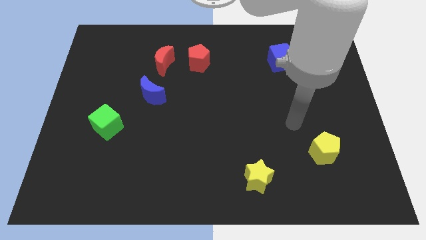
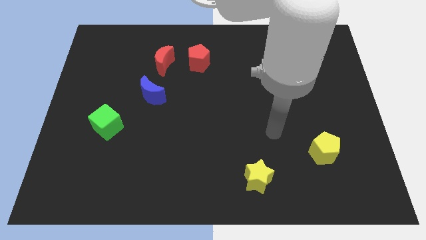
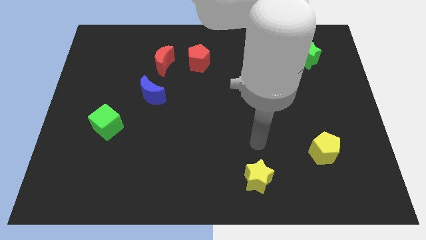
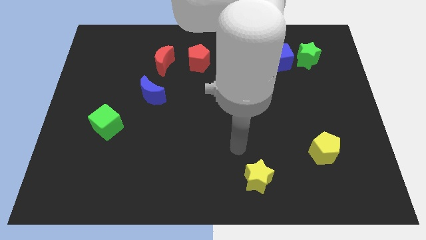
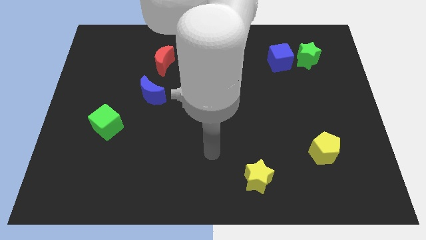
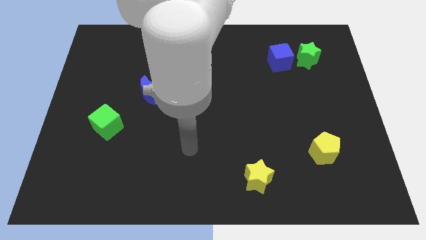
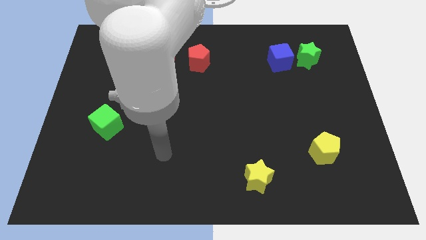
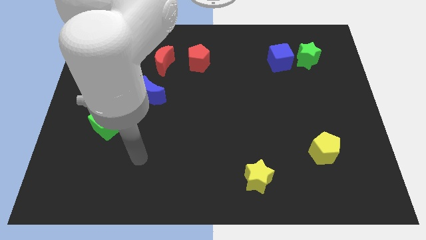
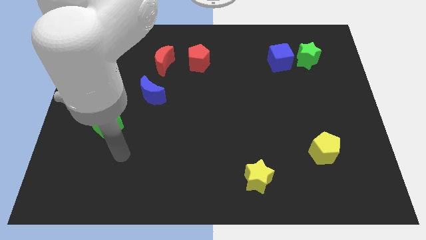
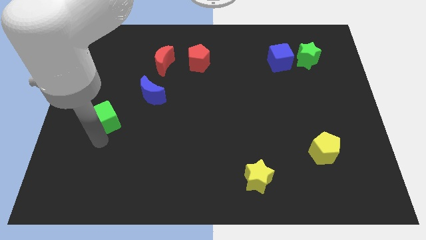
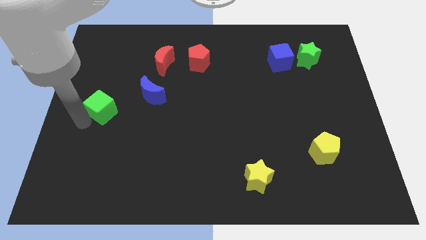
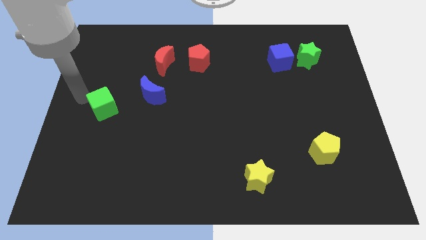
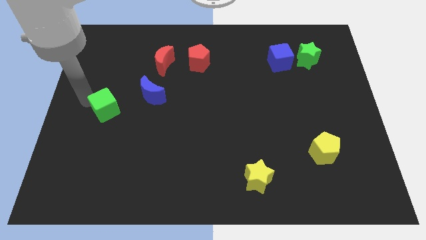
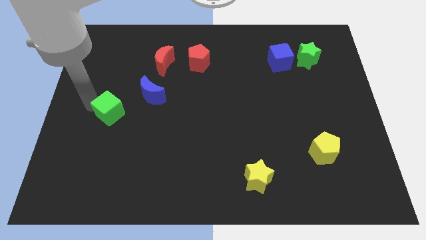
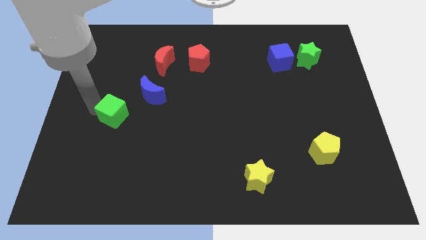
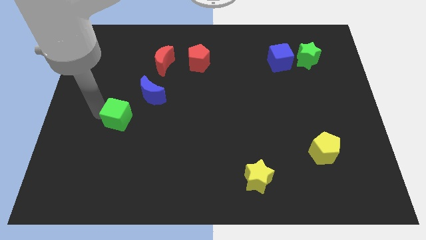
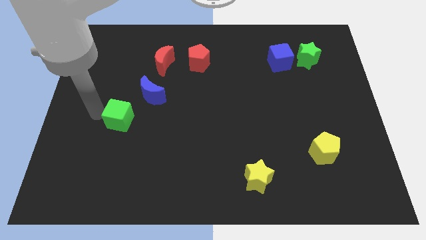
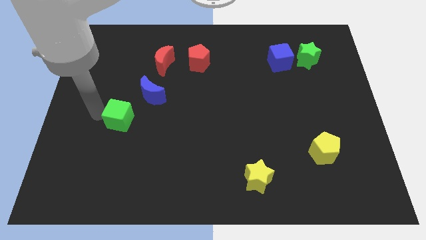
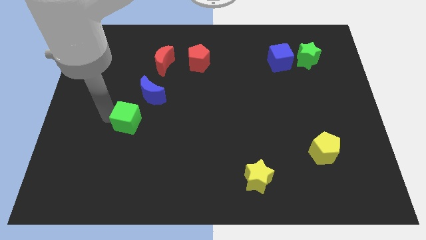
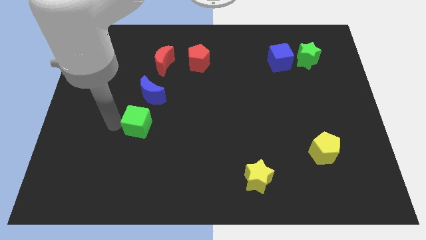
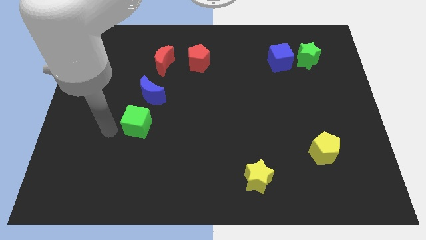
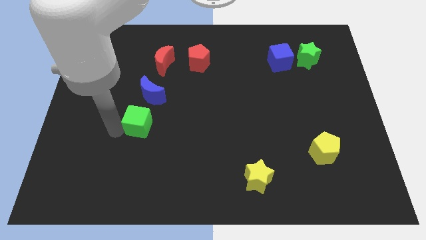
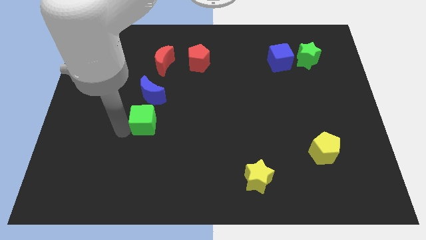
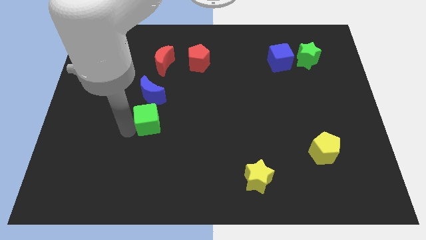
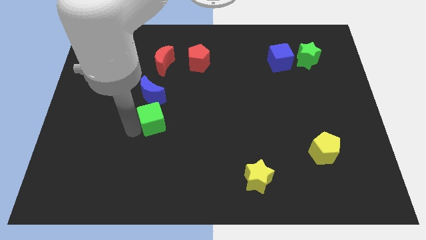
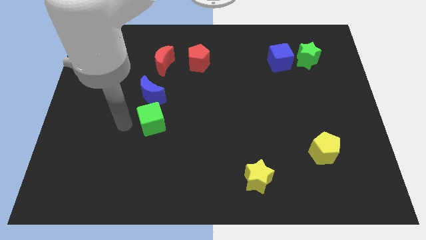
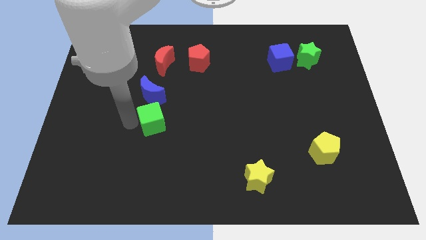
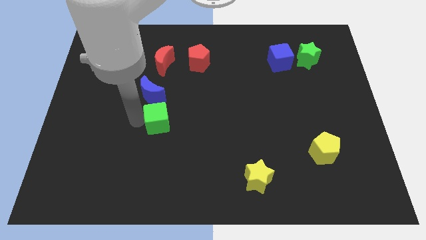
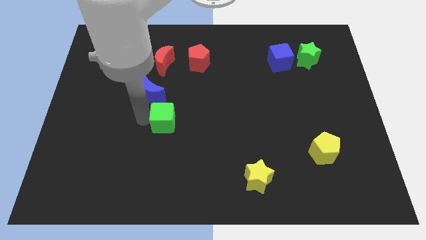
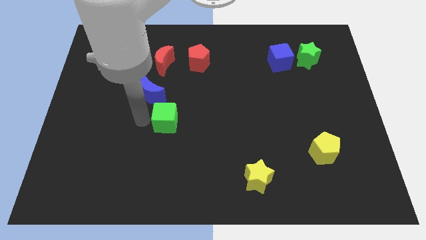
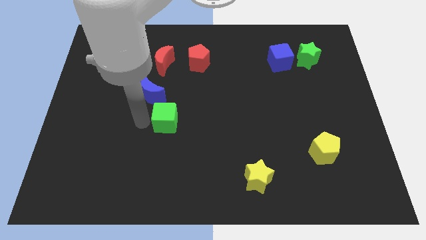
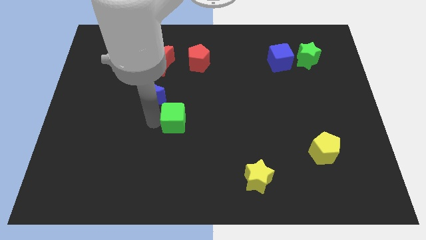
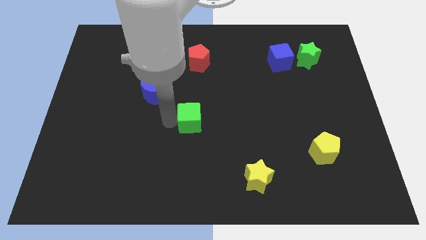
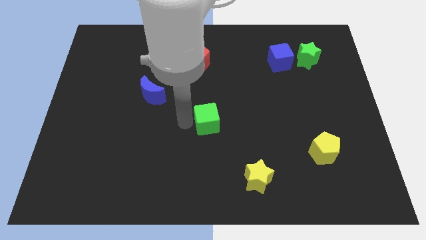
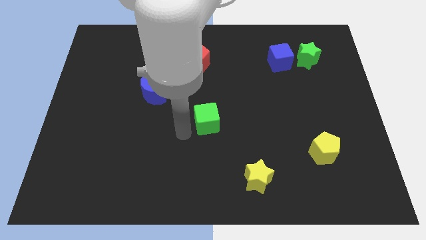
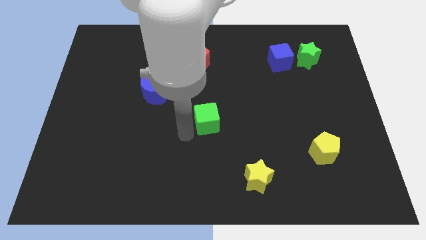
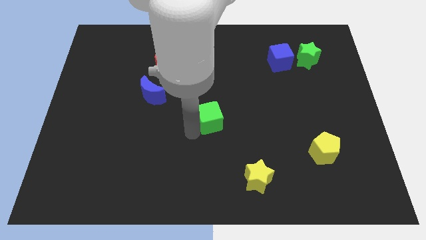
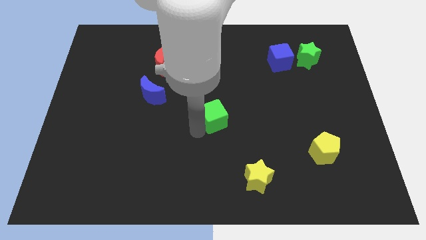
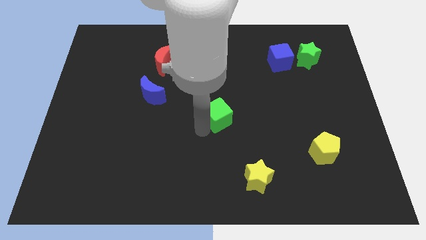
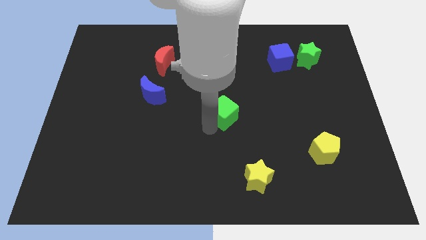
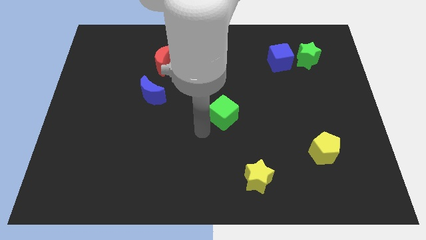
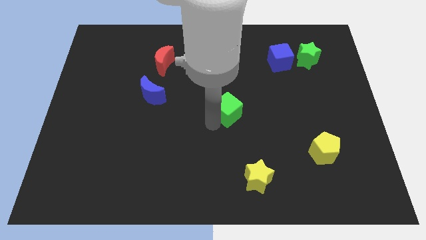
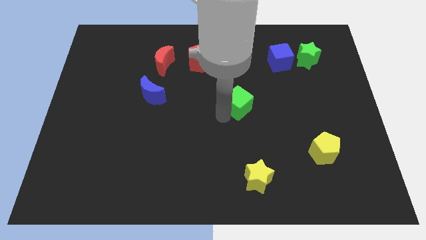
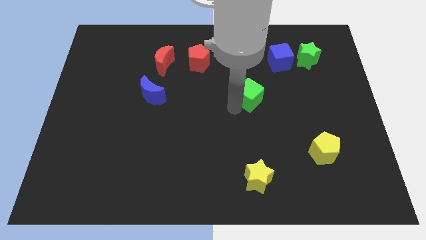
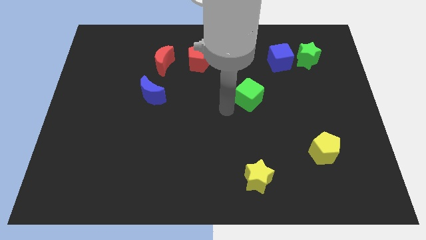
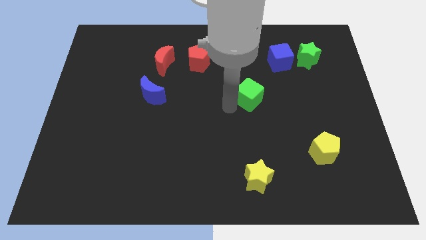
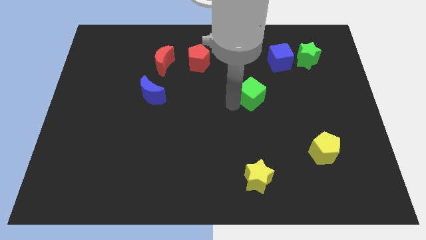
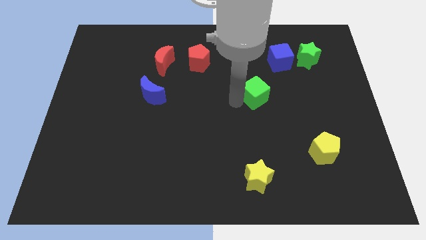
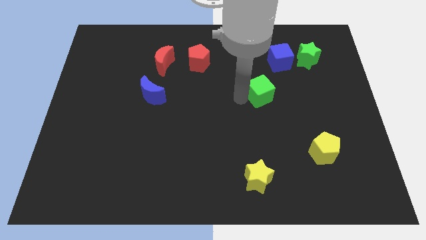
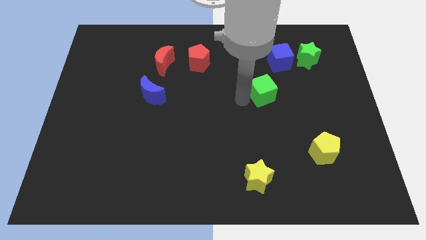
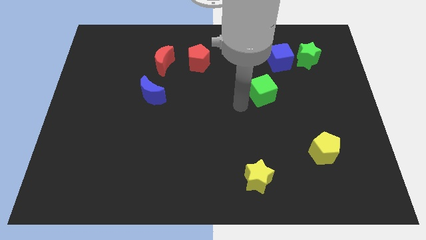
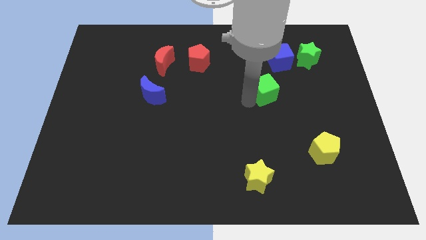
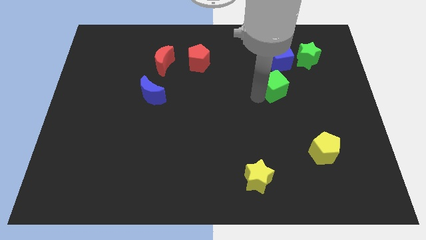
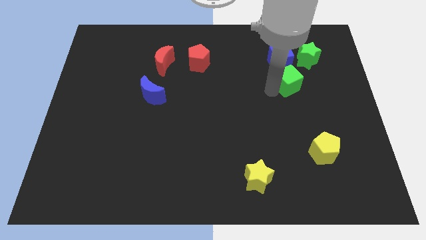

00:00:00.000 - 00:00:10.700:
put the green cube diagonally down and to the right of the blue cube

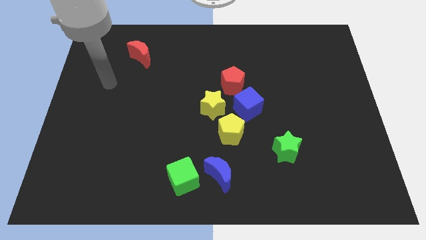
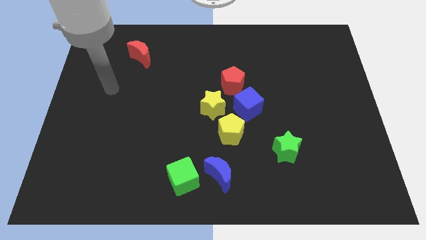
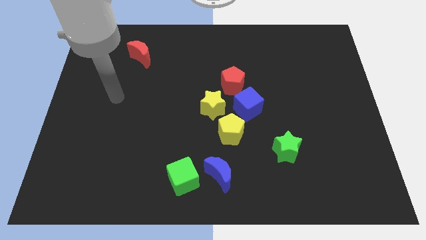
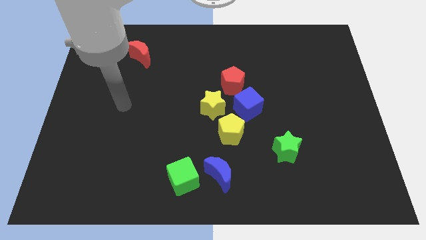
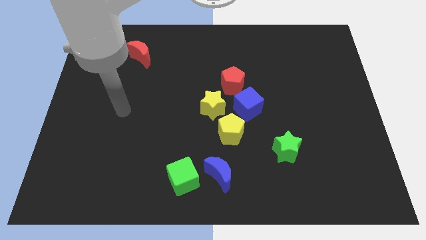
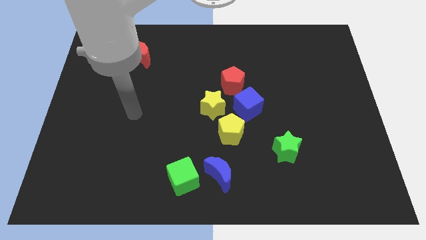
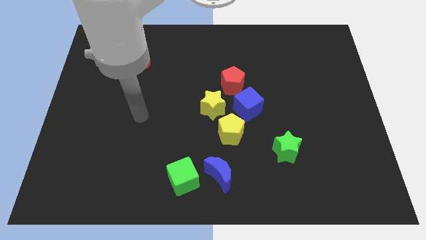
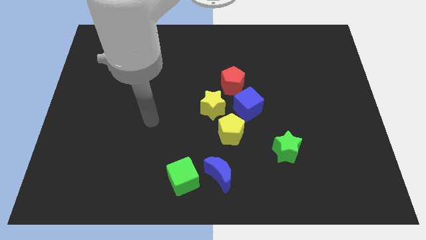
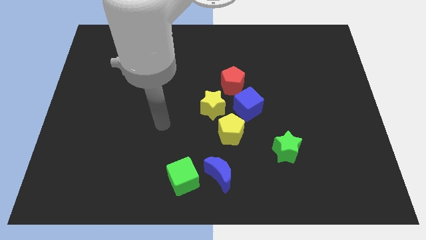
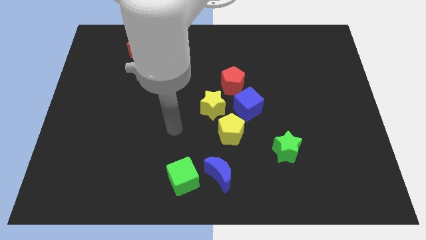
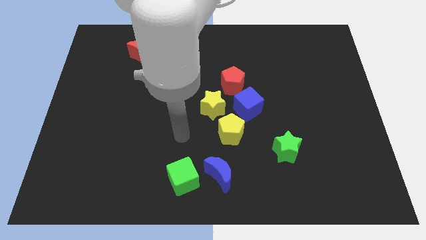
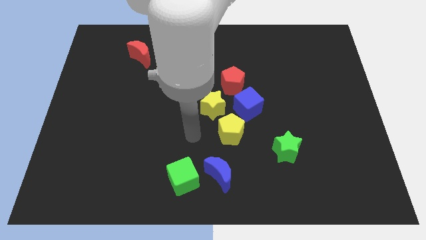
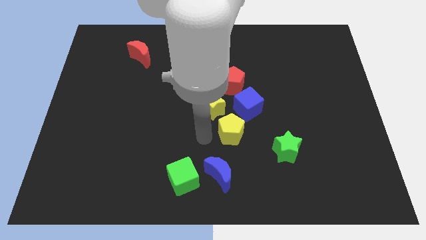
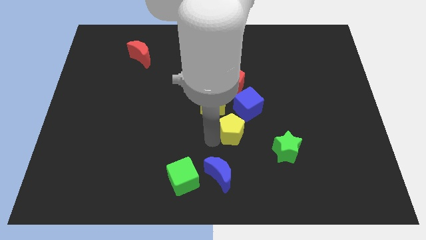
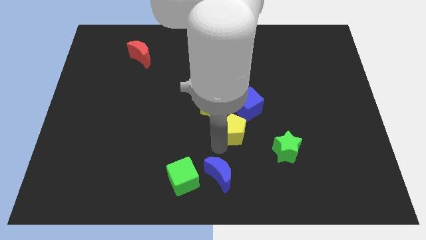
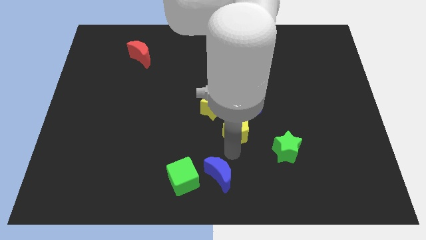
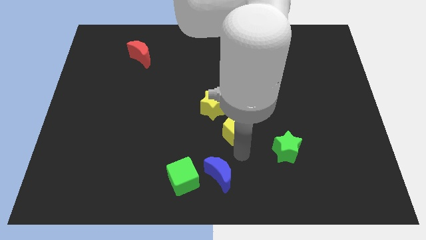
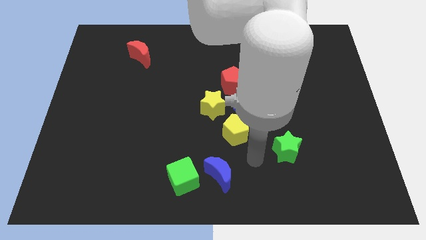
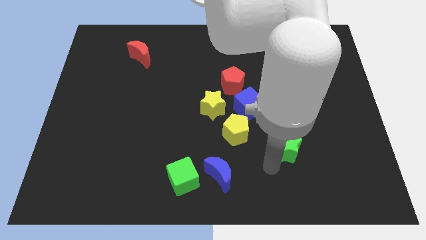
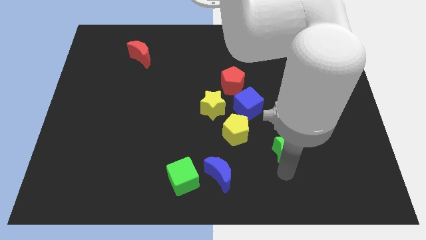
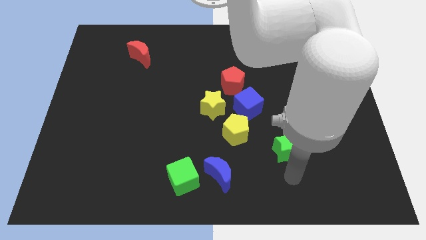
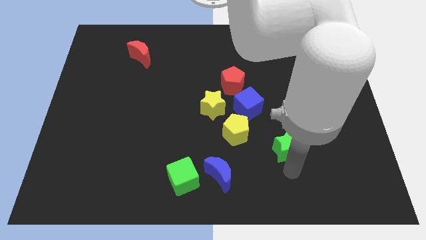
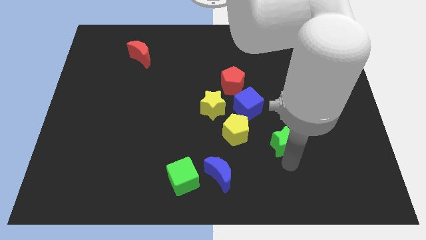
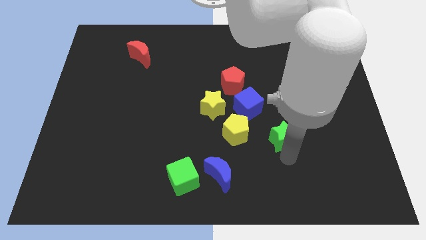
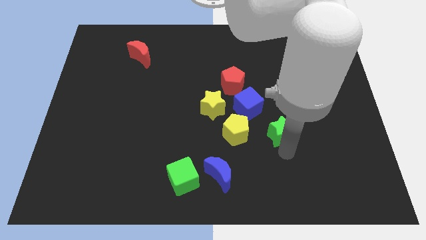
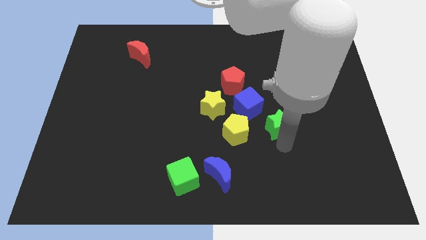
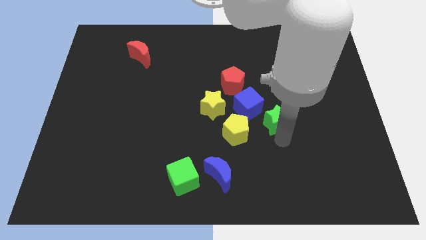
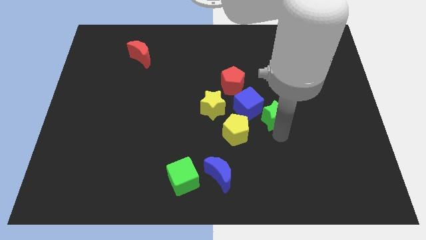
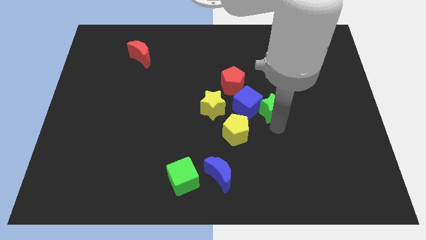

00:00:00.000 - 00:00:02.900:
slide the green star to the top right of the blue cube
